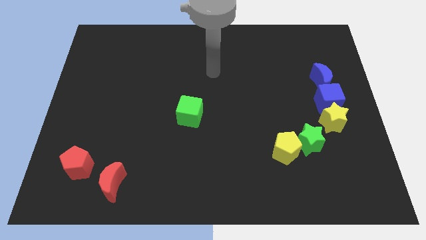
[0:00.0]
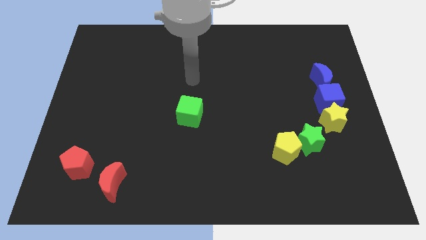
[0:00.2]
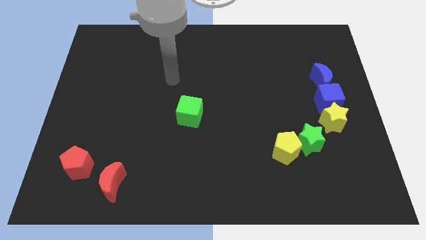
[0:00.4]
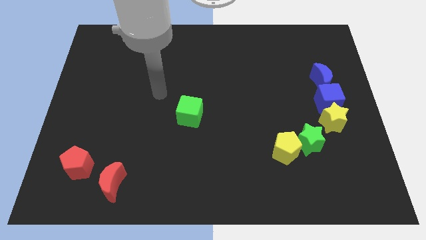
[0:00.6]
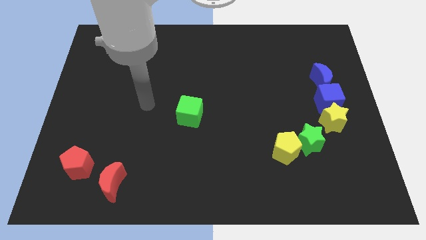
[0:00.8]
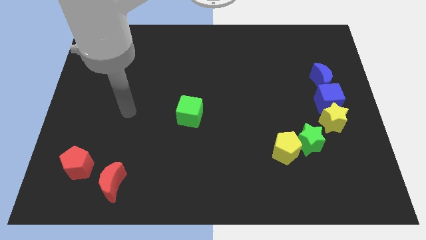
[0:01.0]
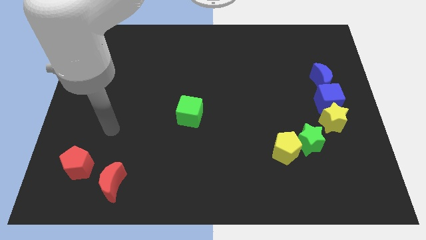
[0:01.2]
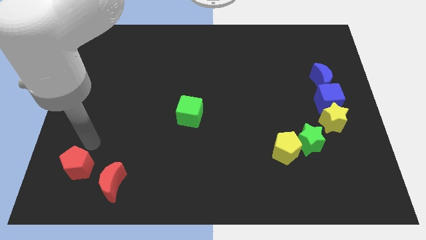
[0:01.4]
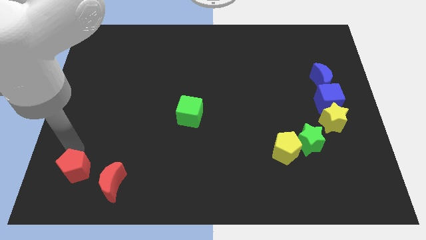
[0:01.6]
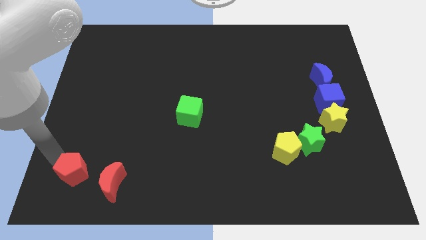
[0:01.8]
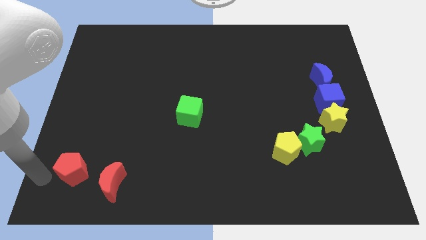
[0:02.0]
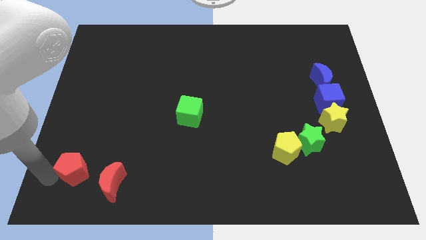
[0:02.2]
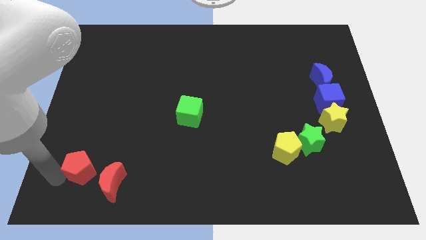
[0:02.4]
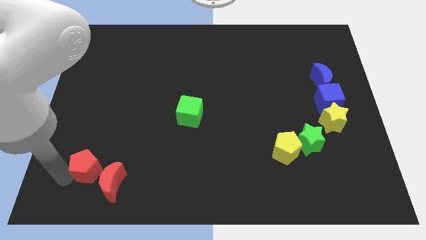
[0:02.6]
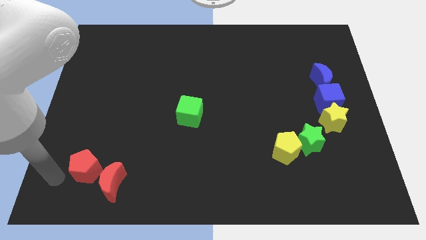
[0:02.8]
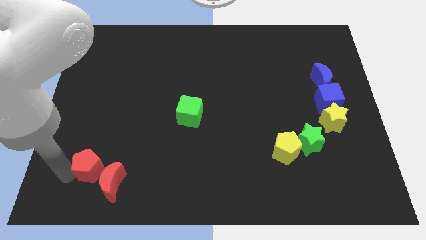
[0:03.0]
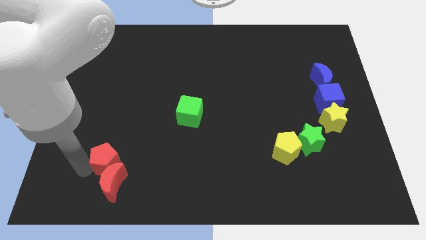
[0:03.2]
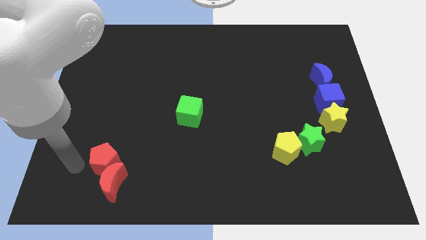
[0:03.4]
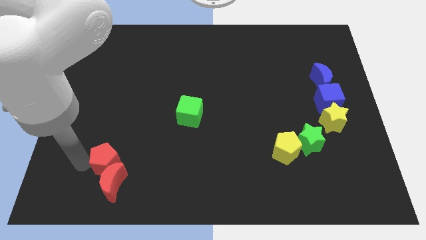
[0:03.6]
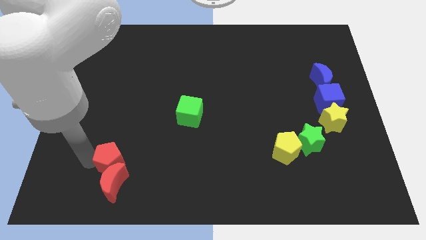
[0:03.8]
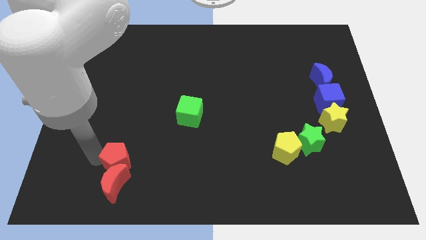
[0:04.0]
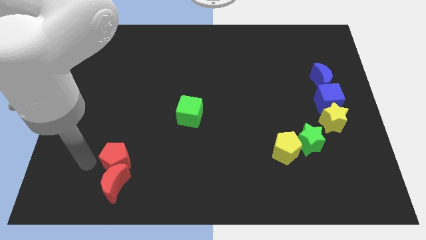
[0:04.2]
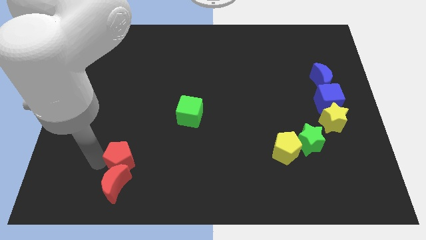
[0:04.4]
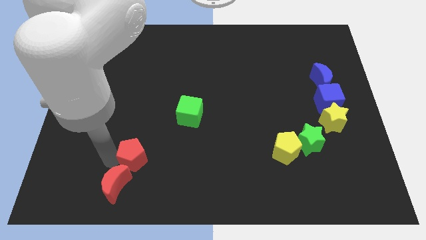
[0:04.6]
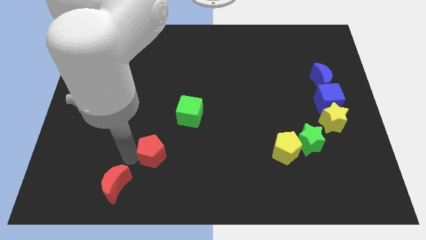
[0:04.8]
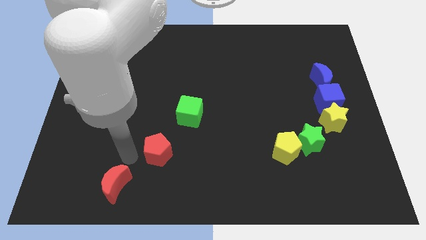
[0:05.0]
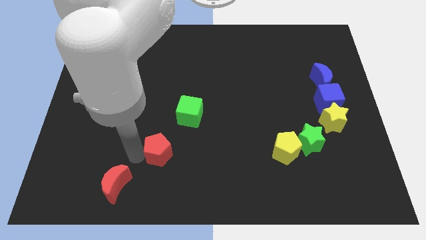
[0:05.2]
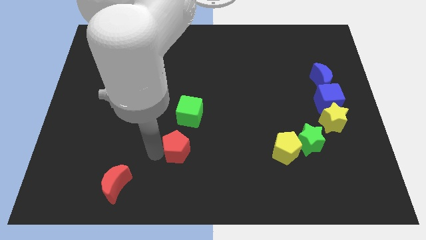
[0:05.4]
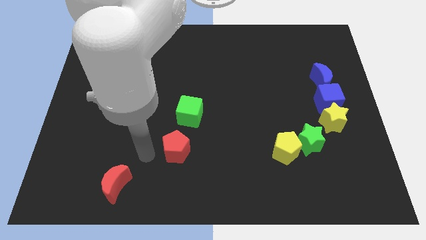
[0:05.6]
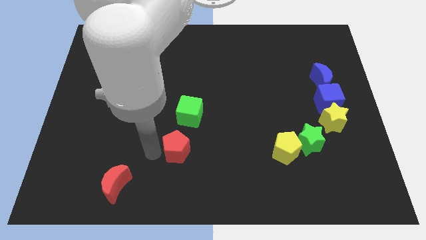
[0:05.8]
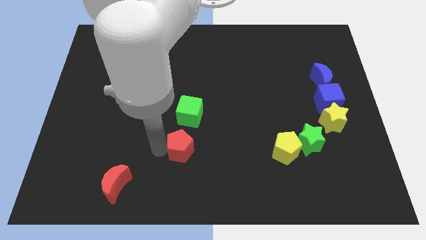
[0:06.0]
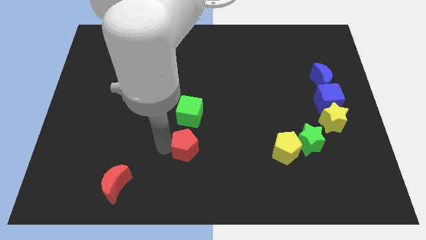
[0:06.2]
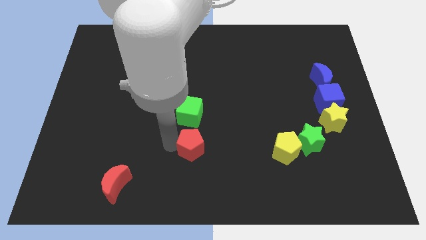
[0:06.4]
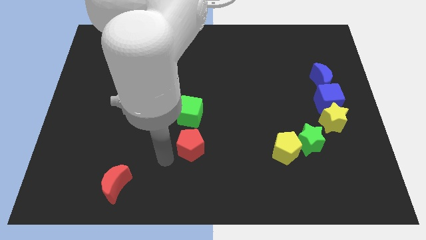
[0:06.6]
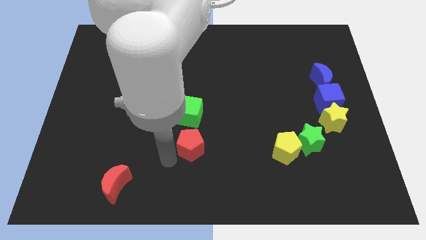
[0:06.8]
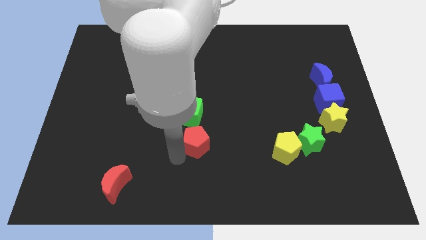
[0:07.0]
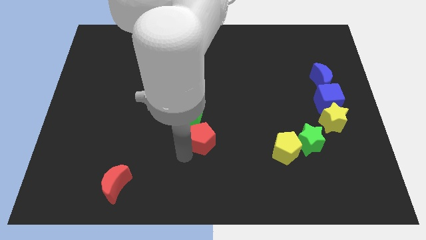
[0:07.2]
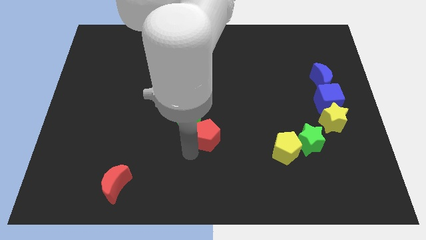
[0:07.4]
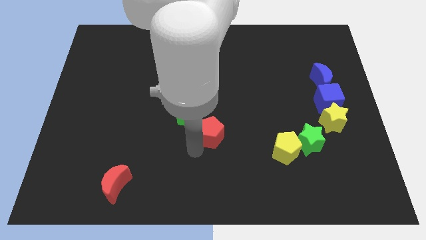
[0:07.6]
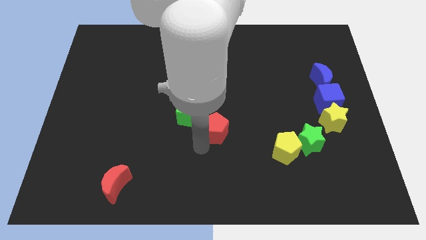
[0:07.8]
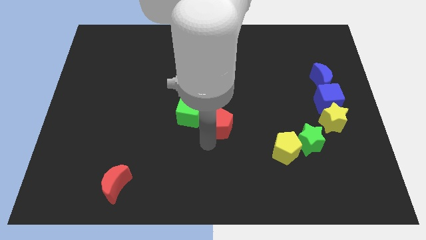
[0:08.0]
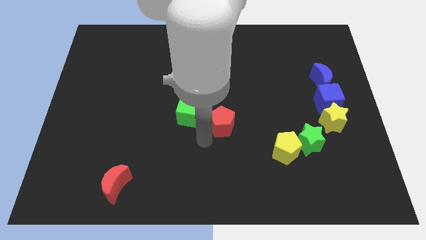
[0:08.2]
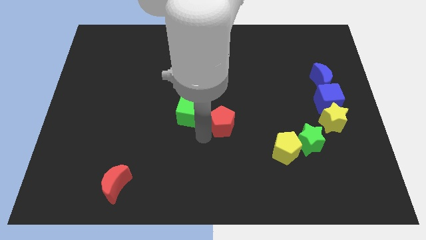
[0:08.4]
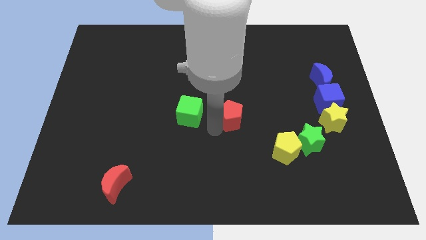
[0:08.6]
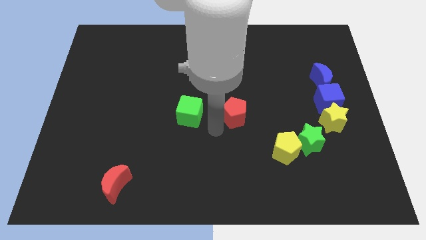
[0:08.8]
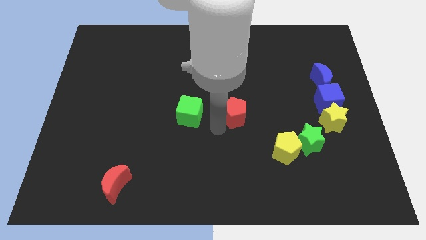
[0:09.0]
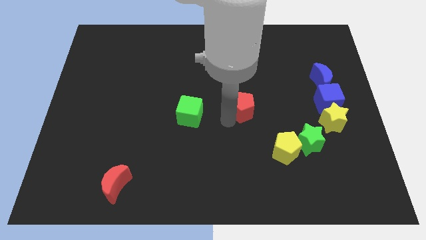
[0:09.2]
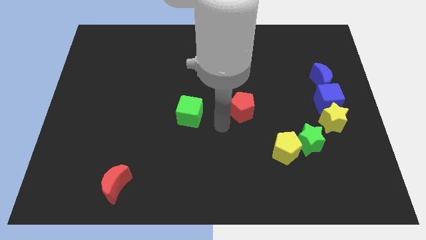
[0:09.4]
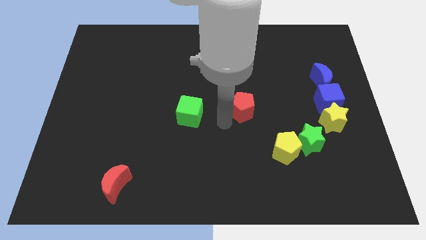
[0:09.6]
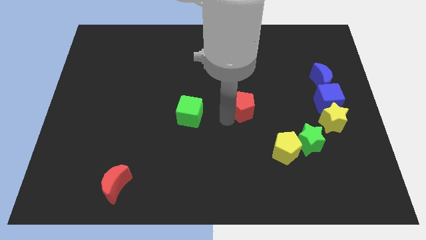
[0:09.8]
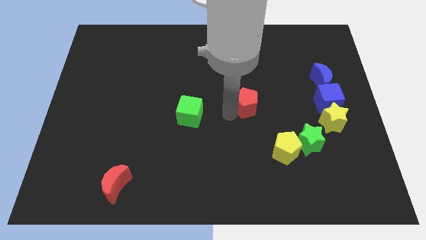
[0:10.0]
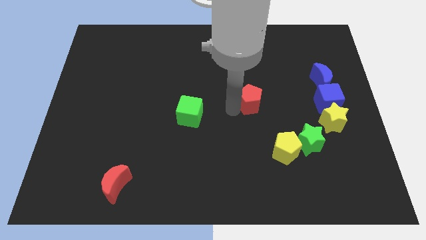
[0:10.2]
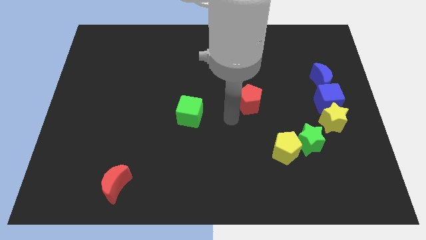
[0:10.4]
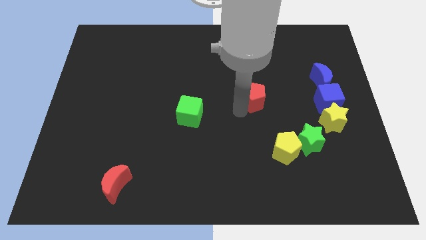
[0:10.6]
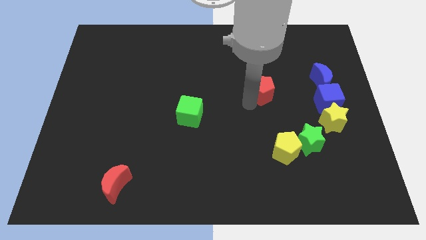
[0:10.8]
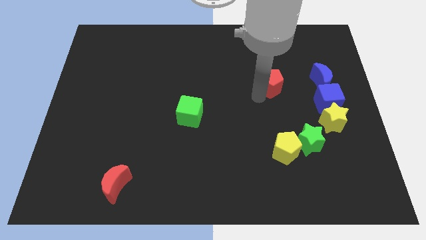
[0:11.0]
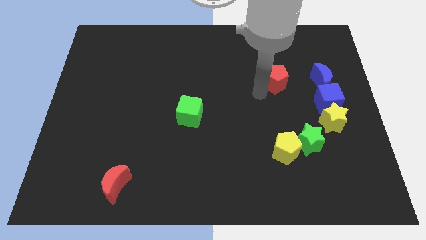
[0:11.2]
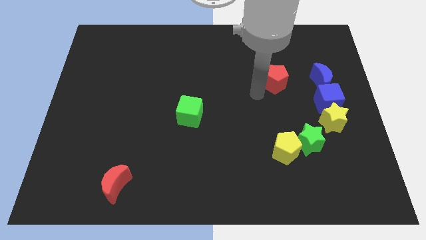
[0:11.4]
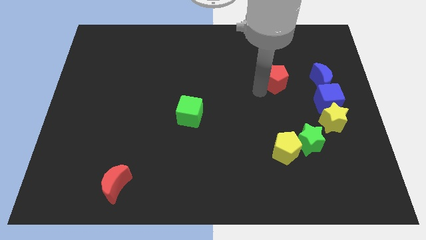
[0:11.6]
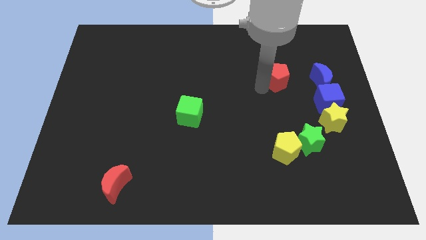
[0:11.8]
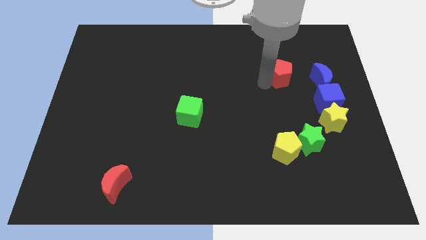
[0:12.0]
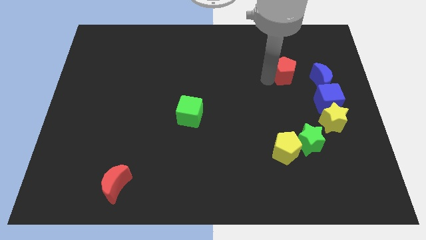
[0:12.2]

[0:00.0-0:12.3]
put the red pentagon diagonally up and to the left of the blue moon

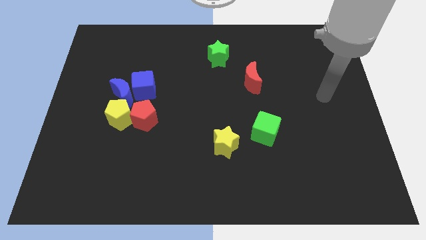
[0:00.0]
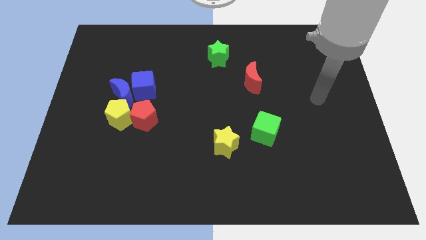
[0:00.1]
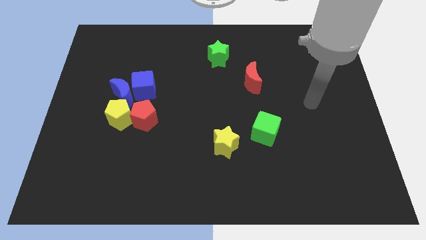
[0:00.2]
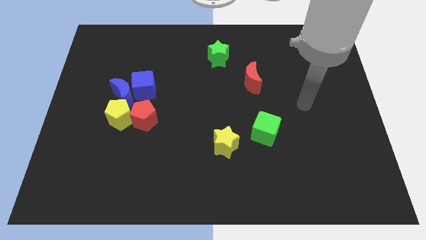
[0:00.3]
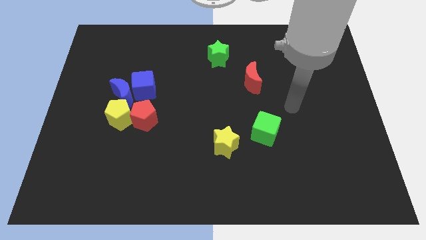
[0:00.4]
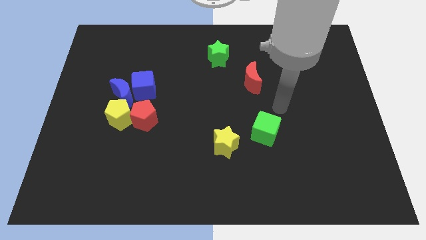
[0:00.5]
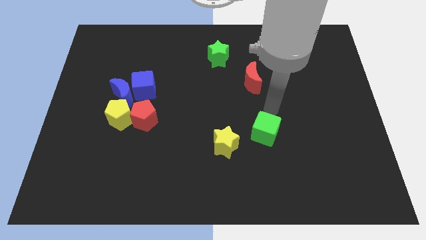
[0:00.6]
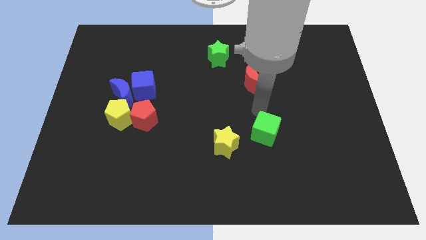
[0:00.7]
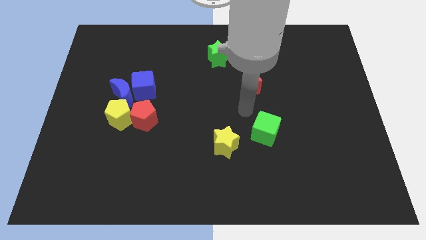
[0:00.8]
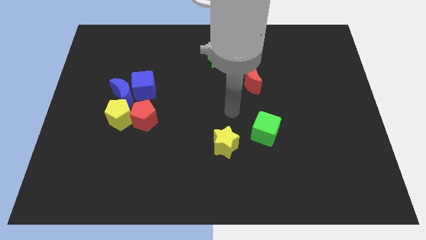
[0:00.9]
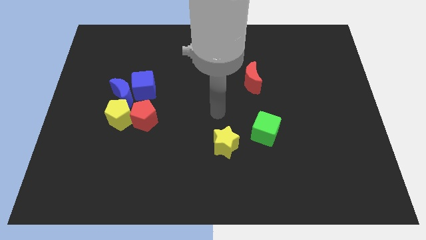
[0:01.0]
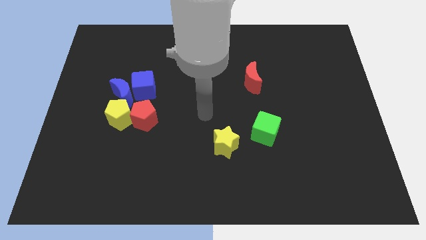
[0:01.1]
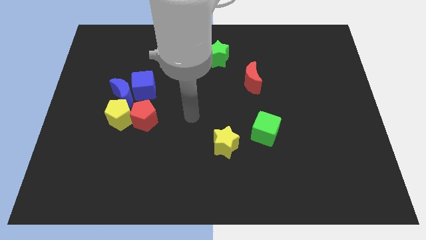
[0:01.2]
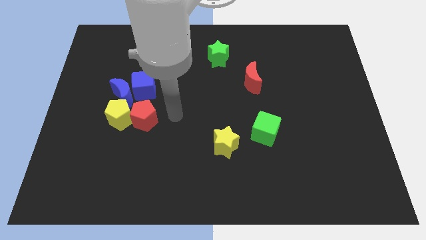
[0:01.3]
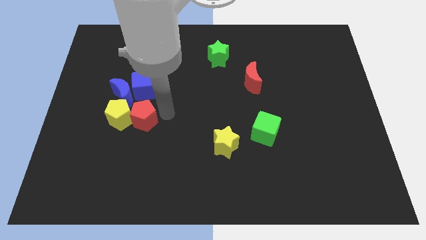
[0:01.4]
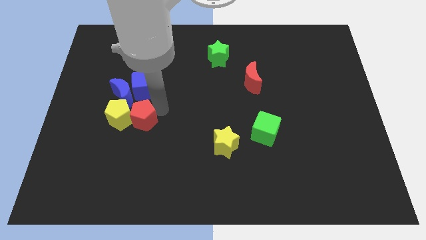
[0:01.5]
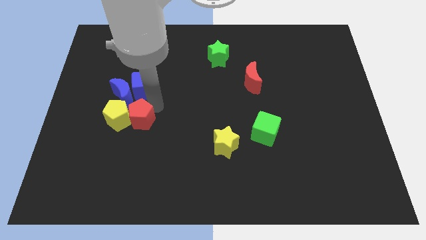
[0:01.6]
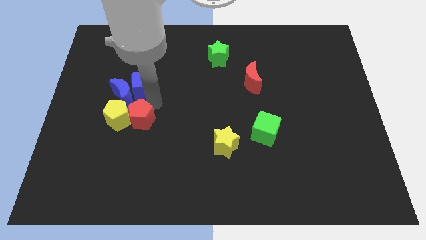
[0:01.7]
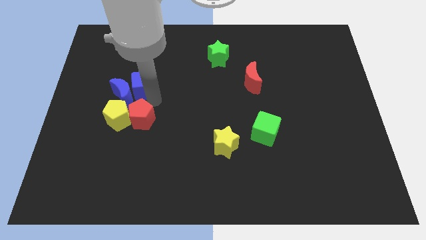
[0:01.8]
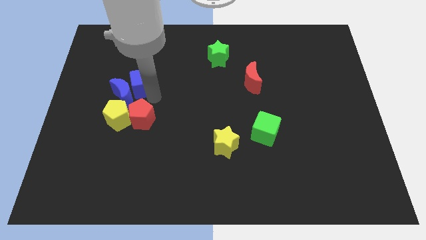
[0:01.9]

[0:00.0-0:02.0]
put the blue cube above the blue moon

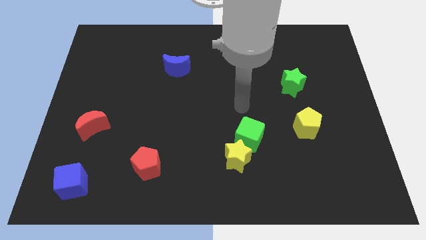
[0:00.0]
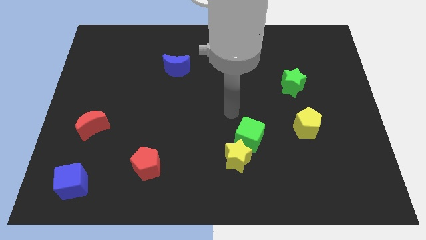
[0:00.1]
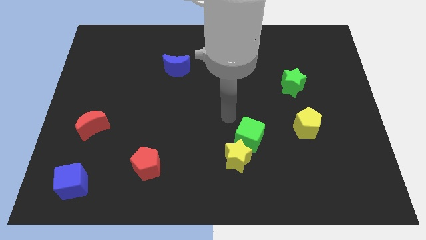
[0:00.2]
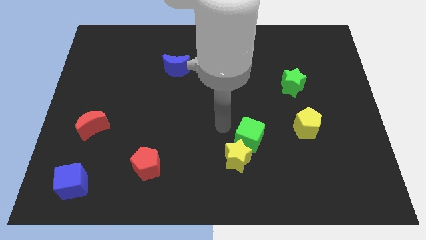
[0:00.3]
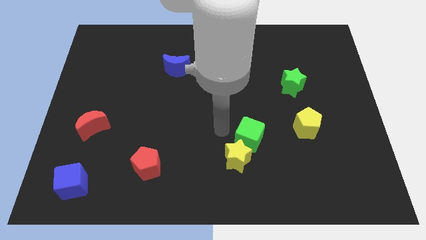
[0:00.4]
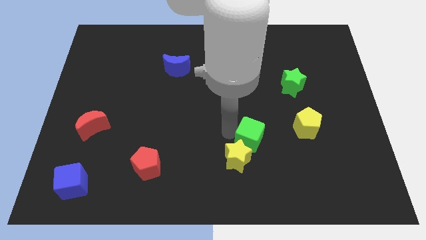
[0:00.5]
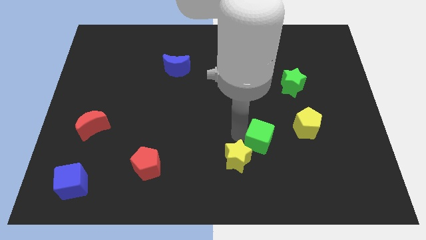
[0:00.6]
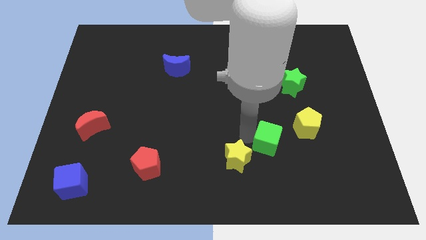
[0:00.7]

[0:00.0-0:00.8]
move the green cube diagonally down and to the left of the yellow pentagon
